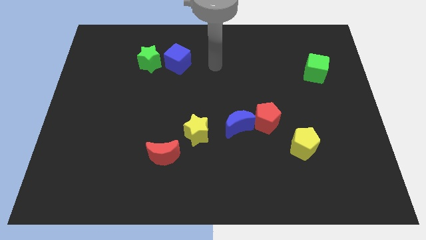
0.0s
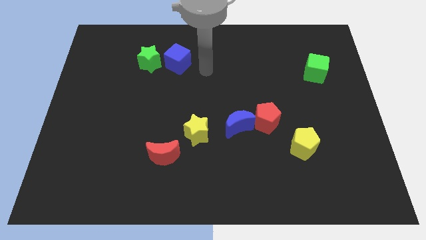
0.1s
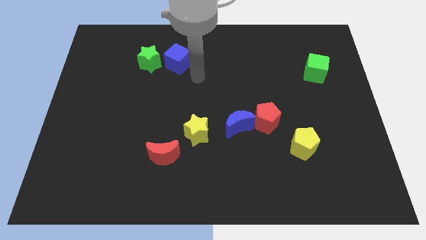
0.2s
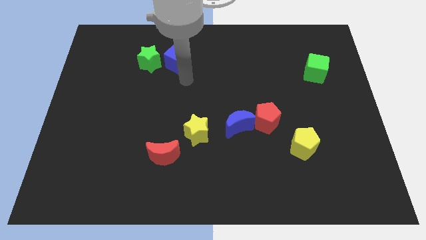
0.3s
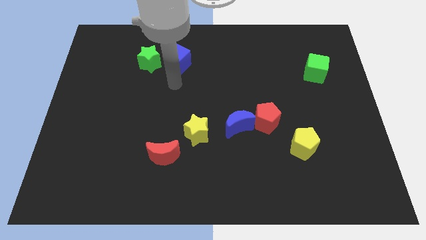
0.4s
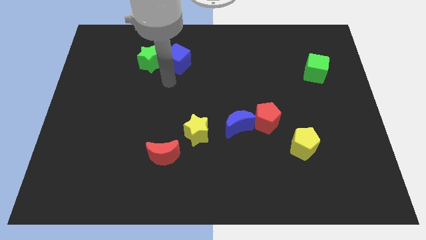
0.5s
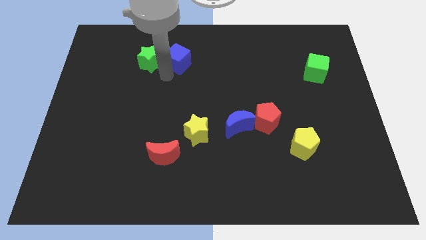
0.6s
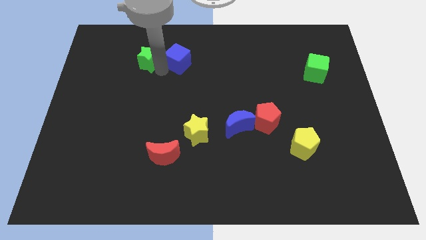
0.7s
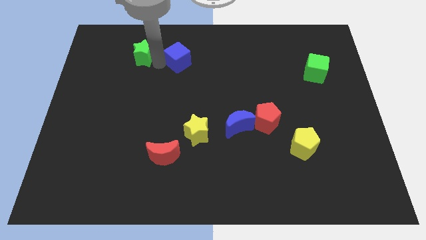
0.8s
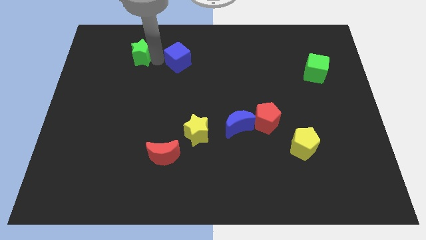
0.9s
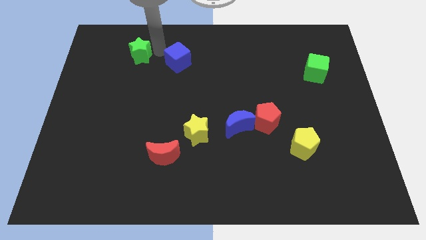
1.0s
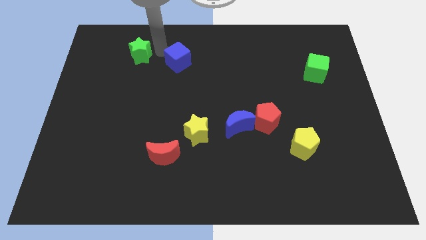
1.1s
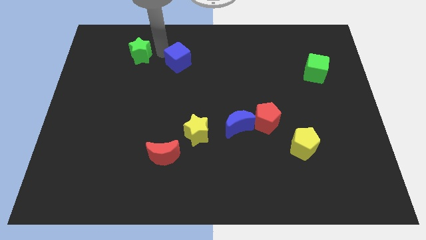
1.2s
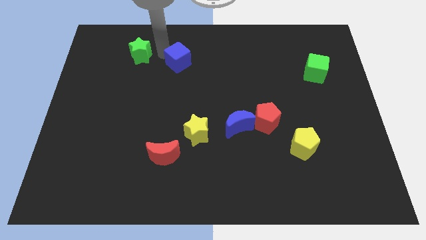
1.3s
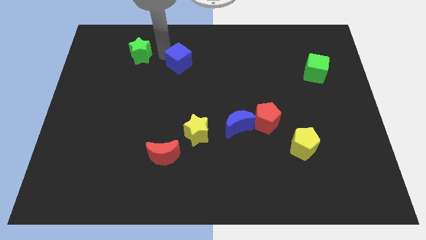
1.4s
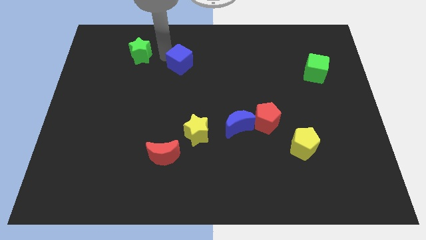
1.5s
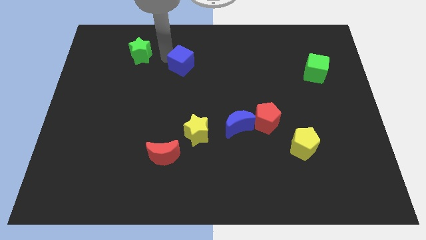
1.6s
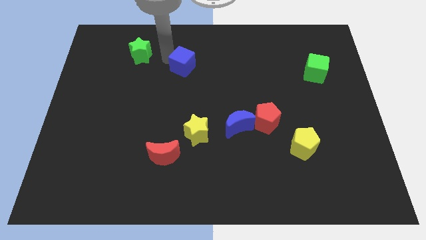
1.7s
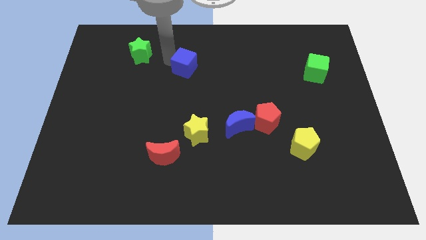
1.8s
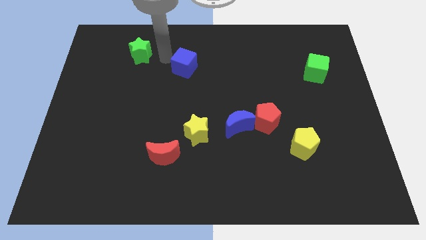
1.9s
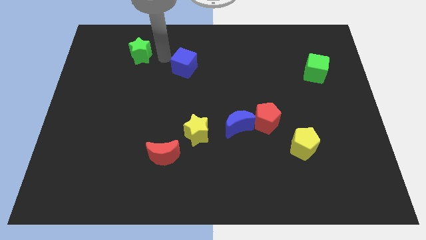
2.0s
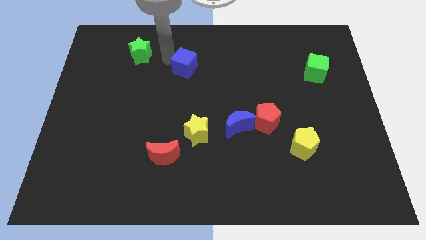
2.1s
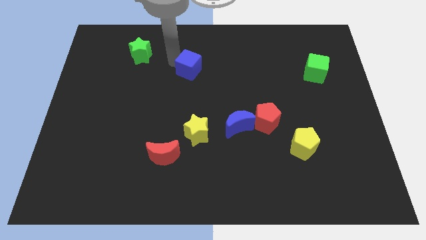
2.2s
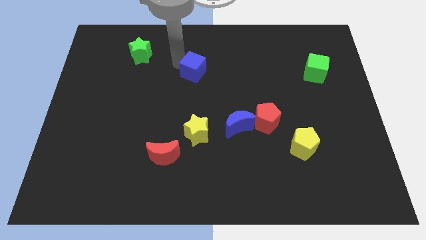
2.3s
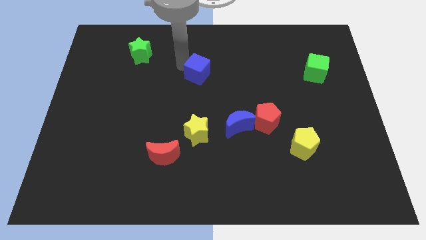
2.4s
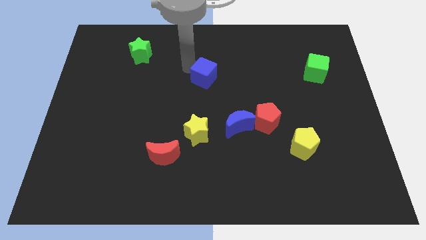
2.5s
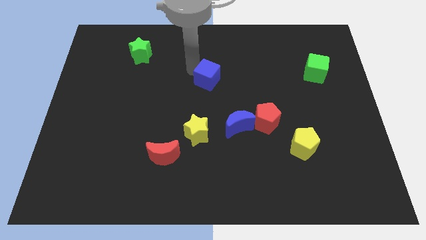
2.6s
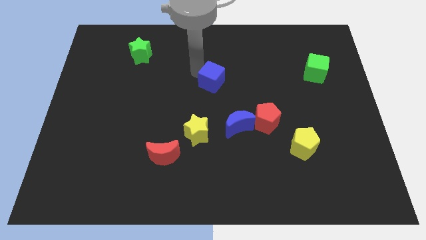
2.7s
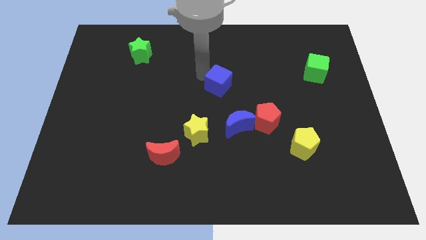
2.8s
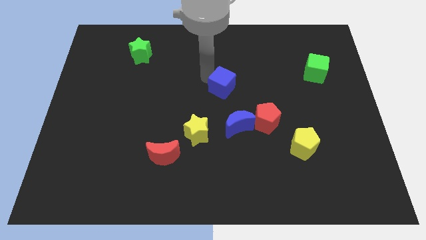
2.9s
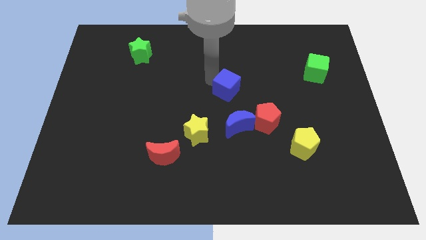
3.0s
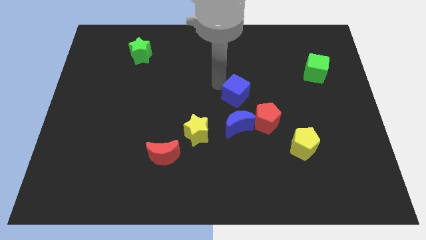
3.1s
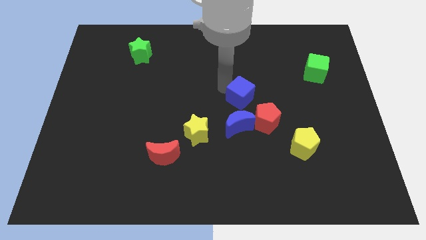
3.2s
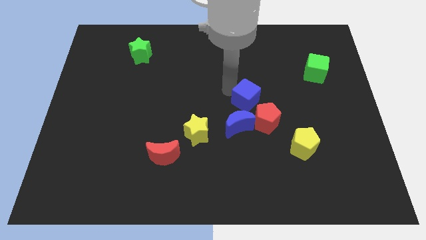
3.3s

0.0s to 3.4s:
move the blue cube diagonally down and right

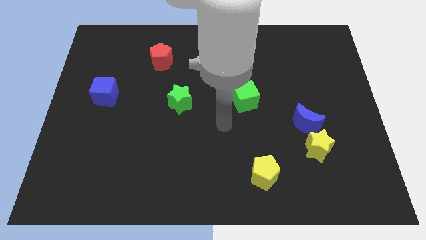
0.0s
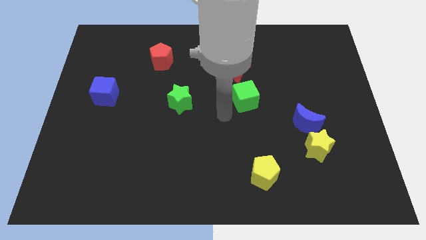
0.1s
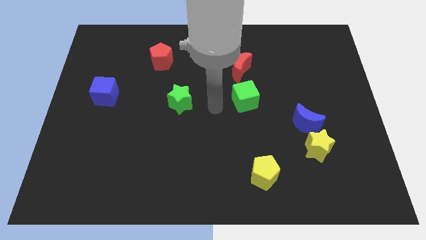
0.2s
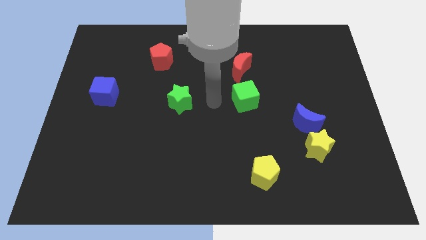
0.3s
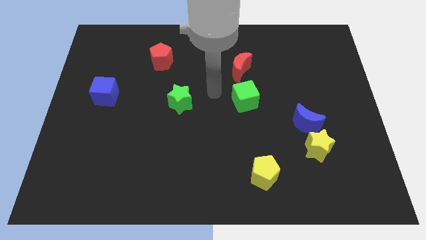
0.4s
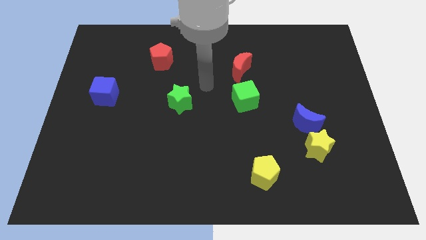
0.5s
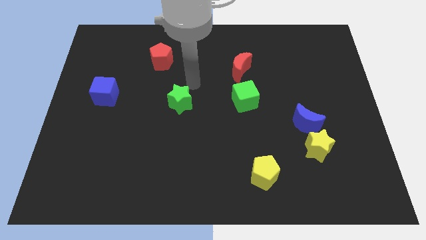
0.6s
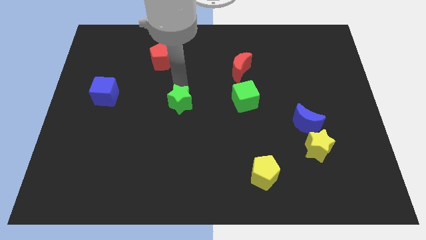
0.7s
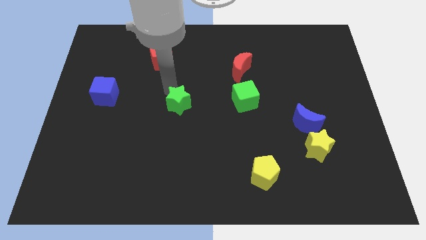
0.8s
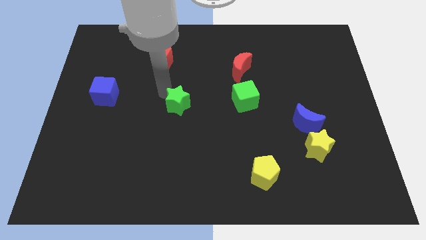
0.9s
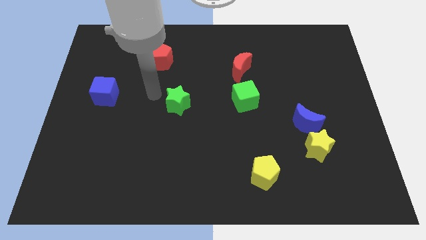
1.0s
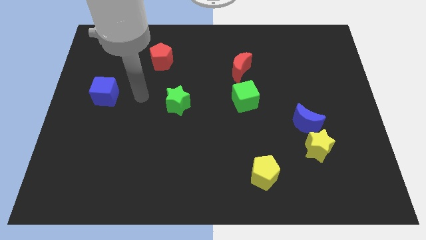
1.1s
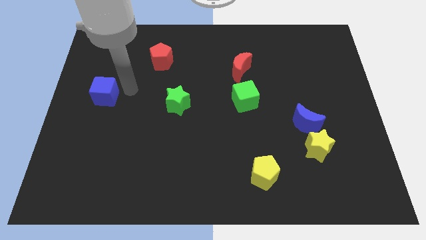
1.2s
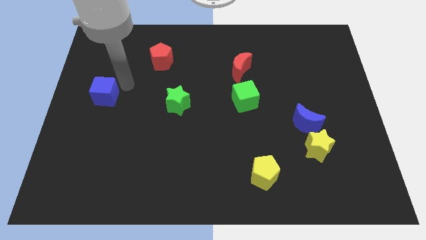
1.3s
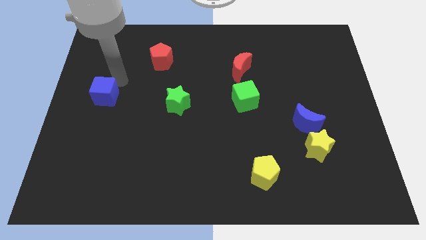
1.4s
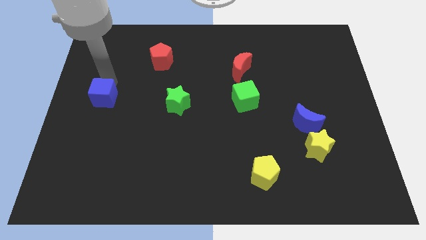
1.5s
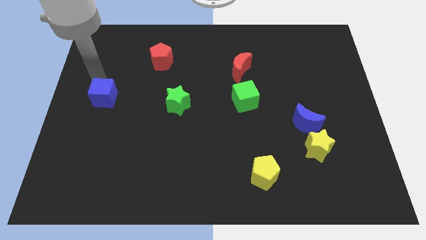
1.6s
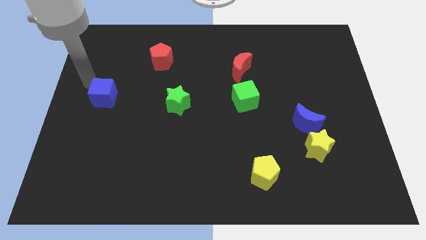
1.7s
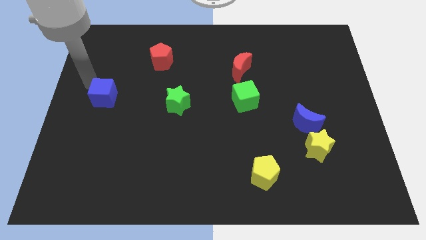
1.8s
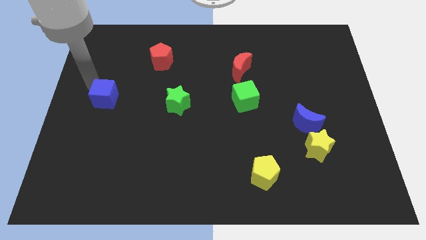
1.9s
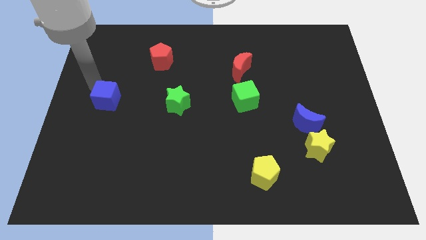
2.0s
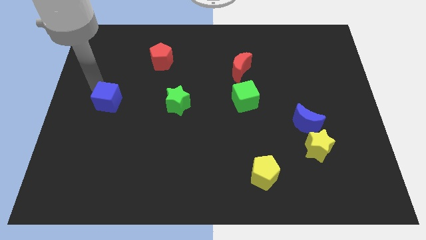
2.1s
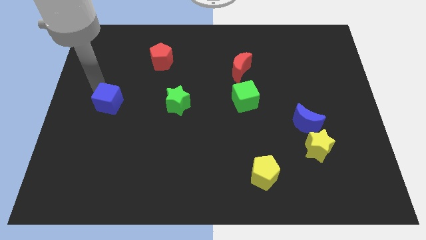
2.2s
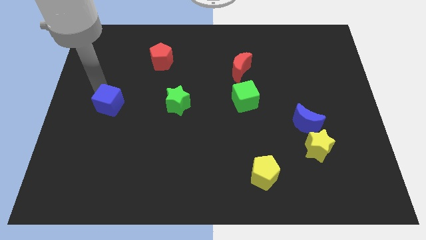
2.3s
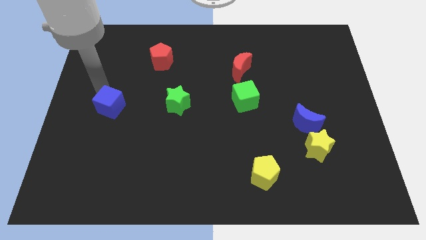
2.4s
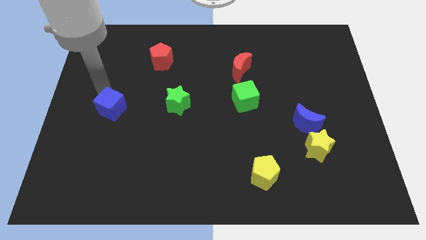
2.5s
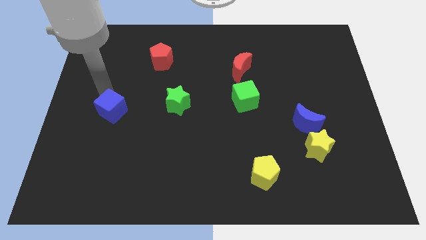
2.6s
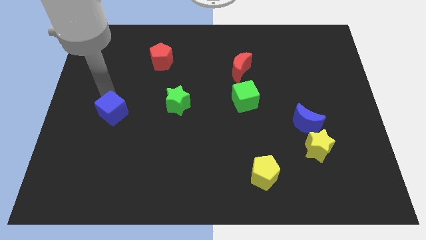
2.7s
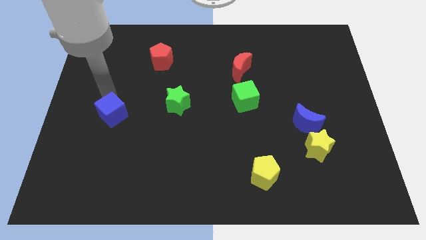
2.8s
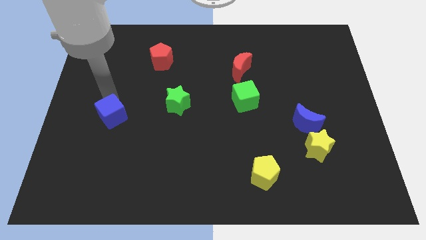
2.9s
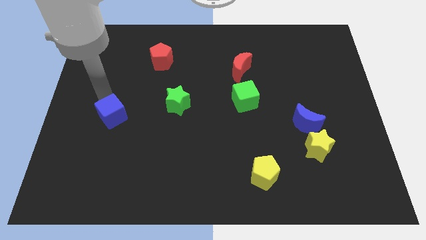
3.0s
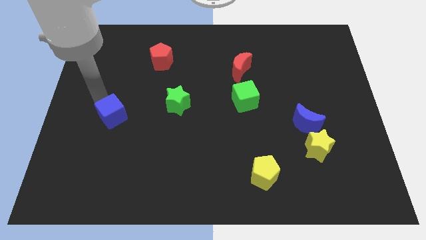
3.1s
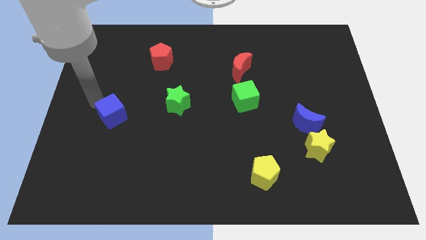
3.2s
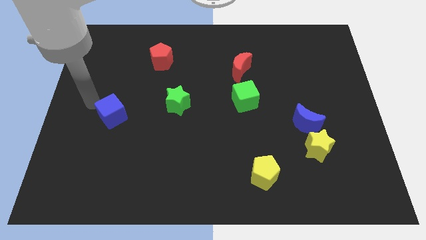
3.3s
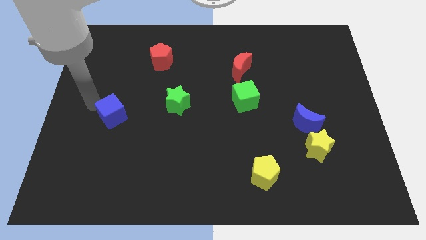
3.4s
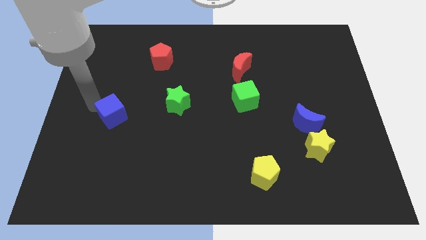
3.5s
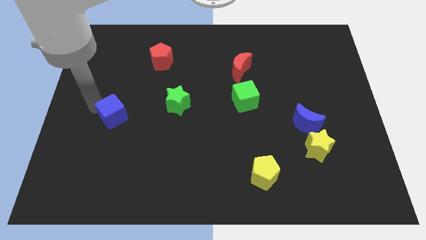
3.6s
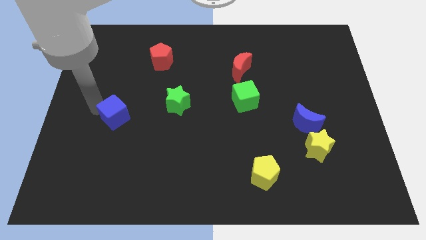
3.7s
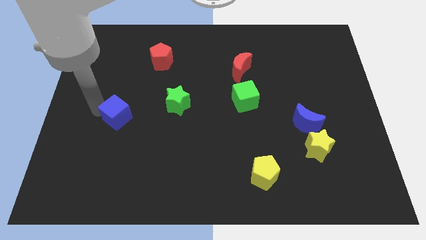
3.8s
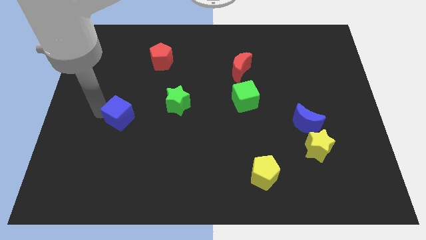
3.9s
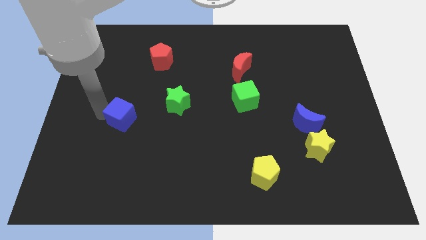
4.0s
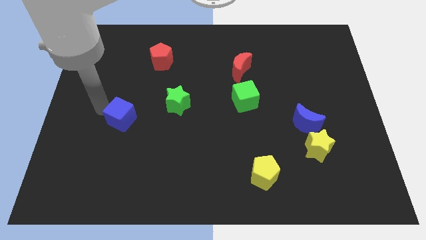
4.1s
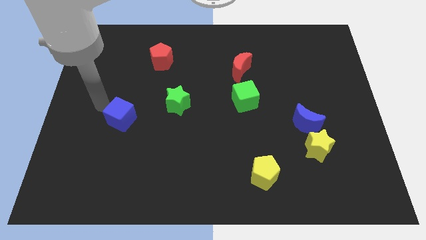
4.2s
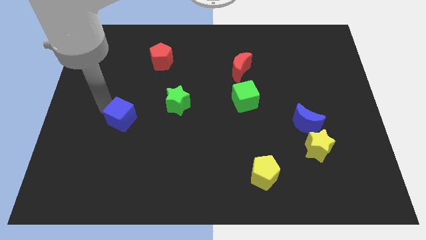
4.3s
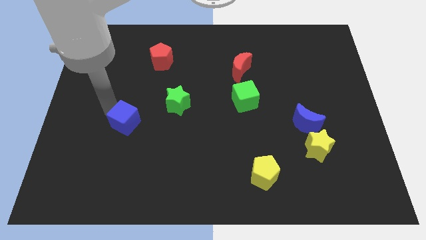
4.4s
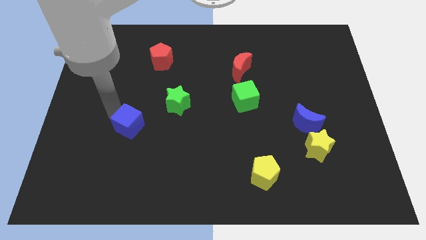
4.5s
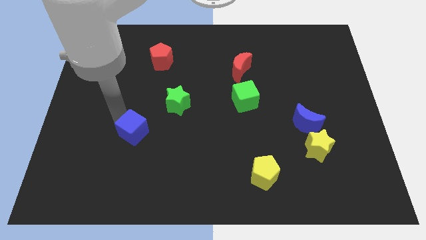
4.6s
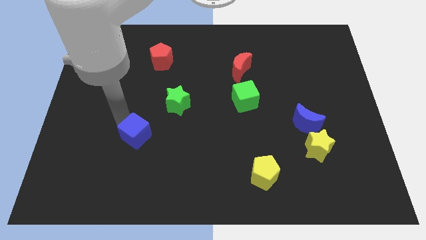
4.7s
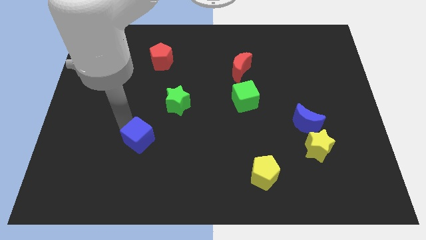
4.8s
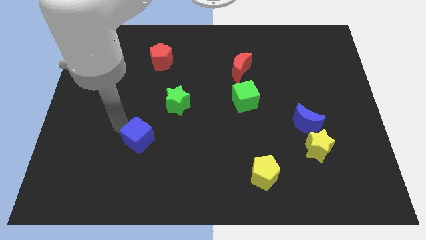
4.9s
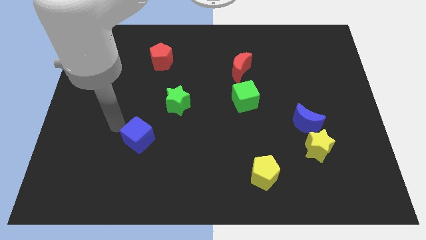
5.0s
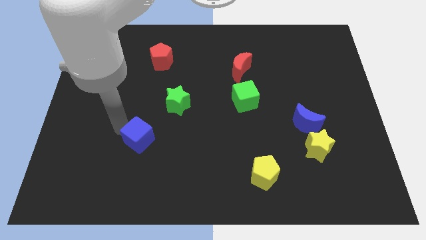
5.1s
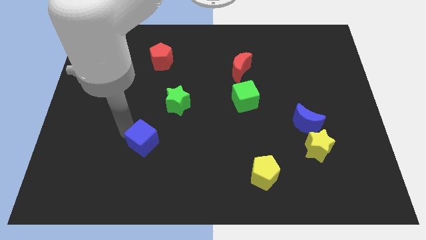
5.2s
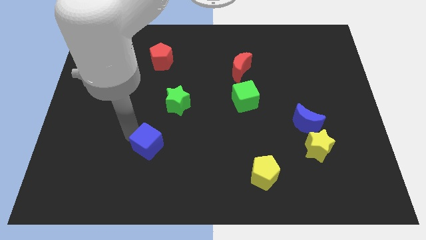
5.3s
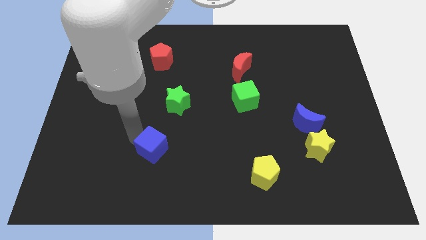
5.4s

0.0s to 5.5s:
push the blue cube downwards and to the right diagonally
